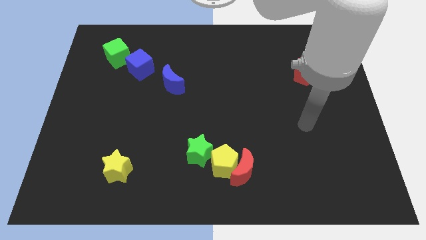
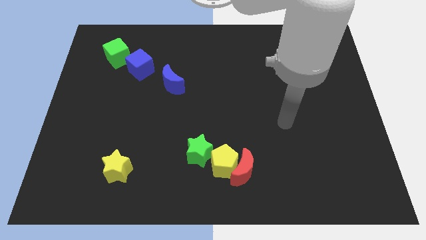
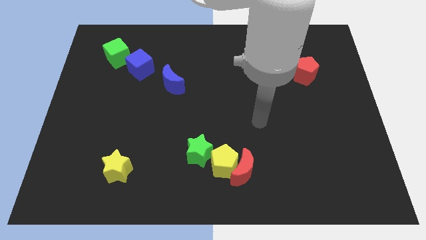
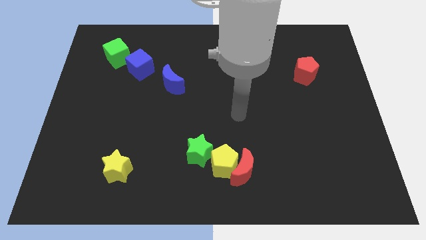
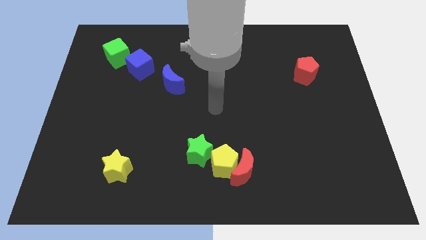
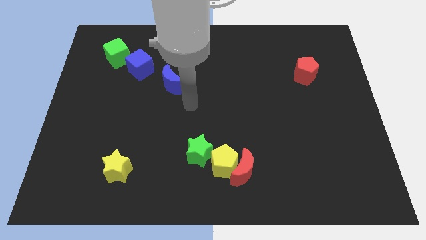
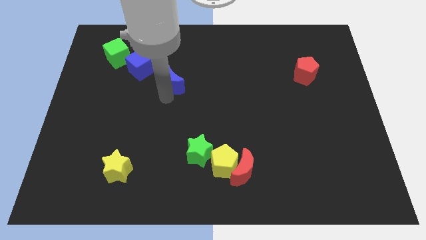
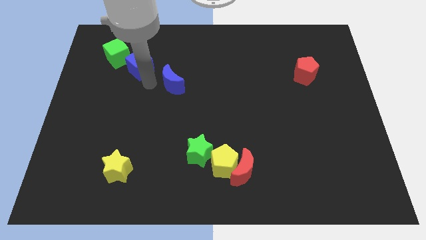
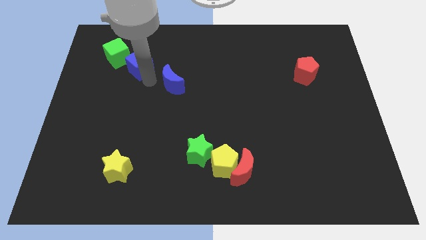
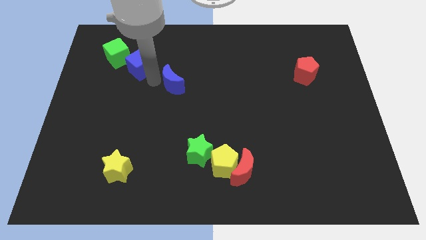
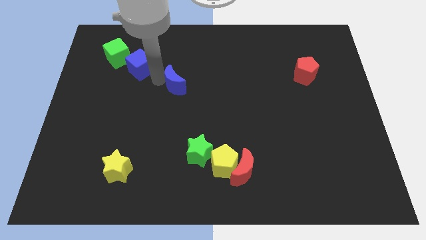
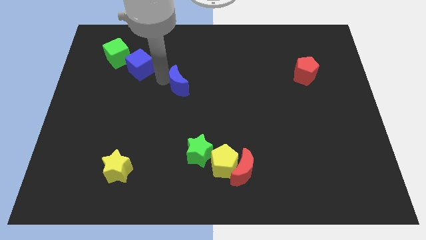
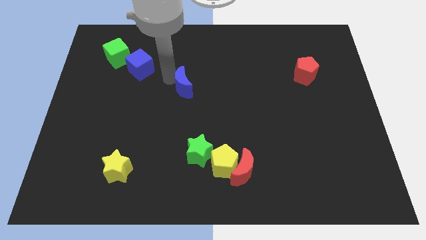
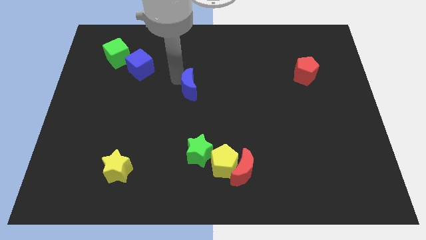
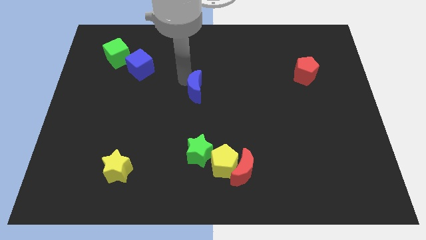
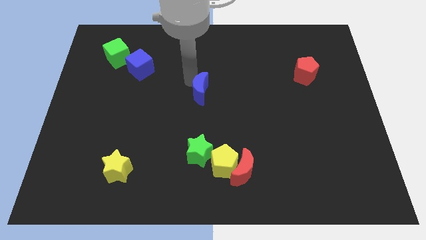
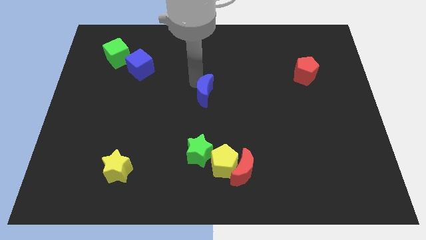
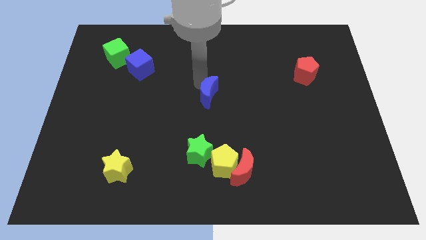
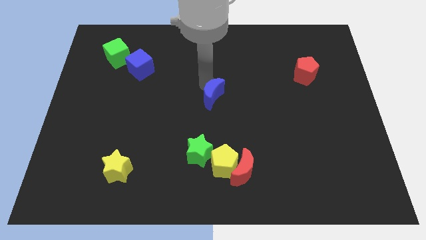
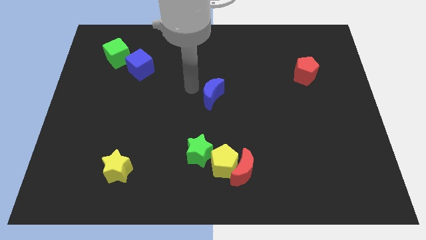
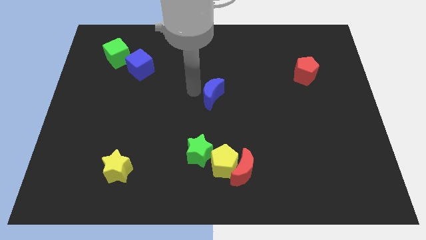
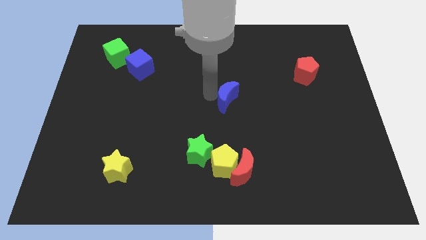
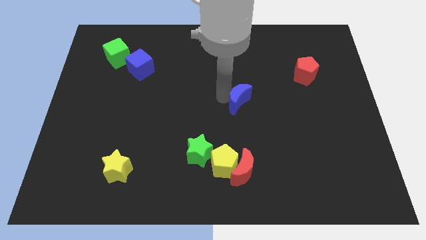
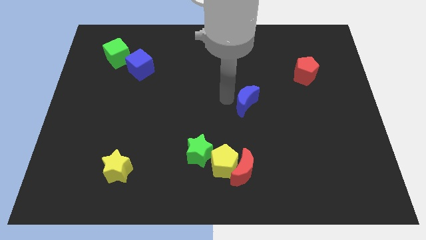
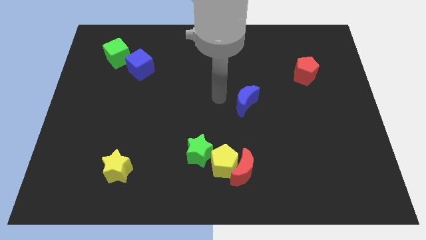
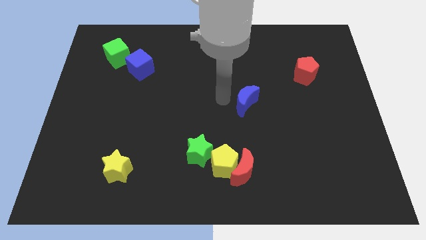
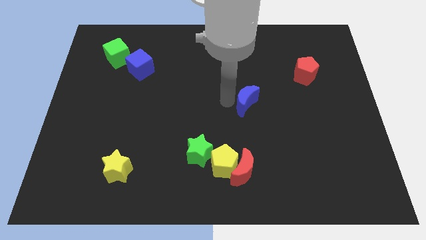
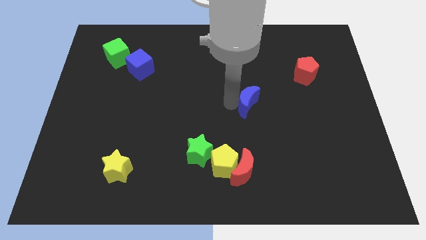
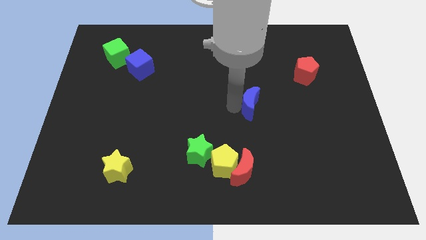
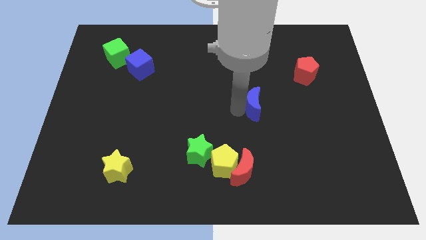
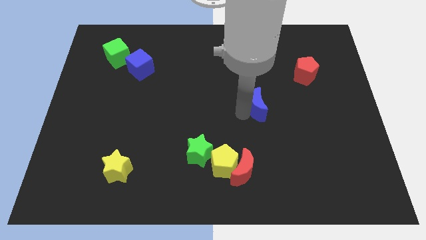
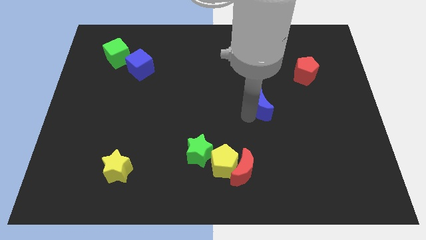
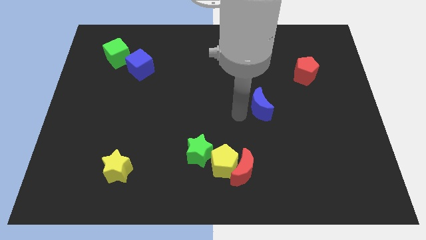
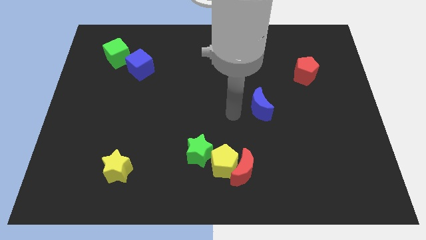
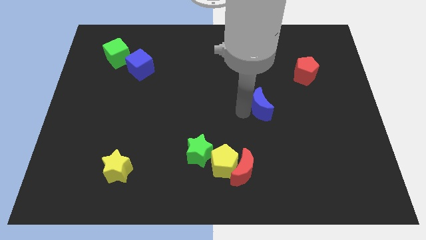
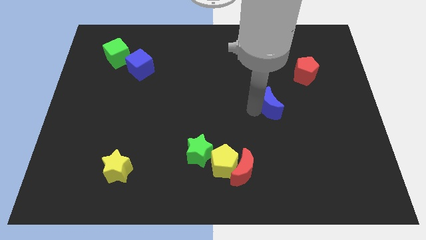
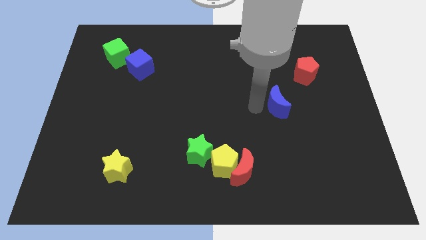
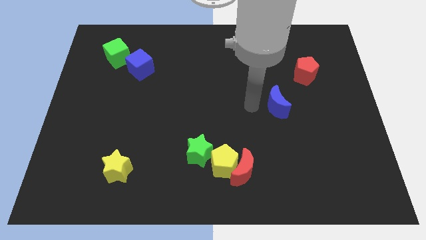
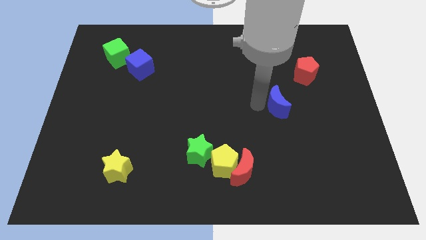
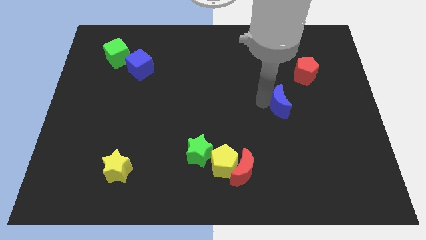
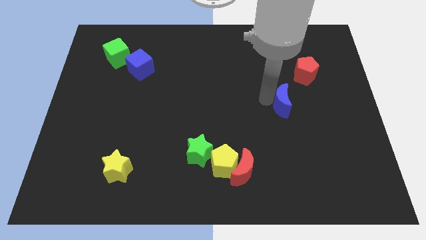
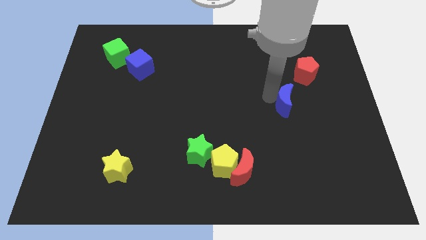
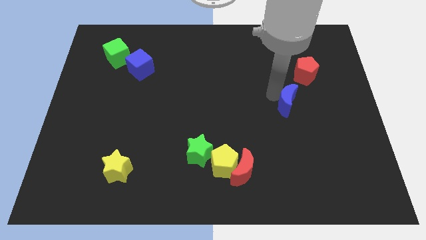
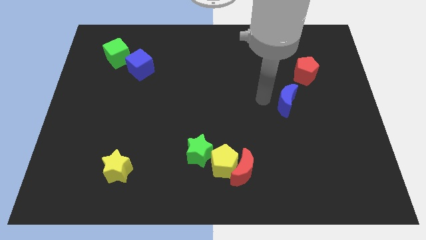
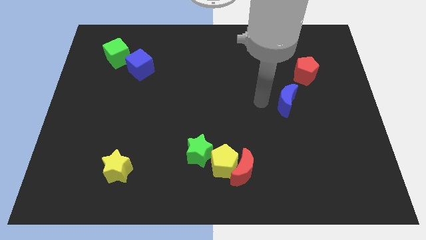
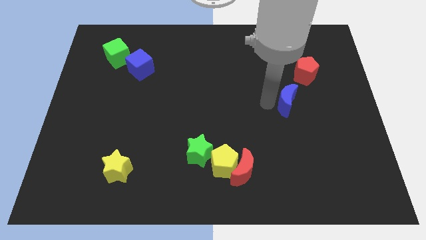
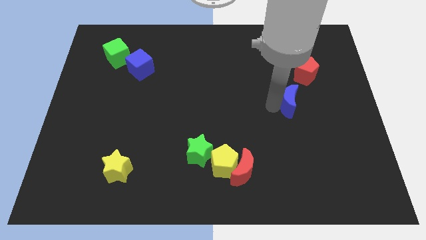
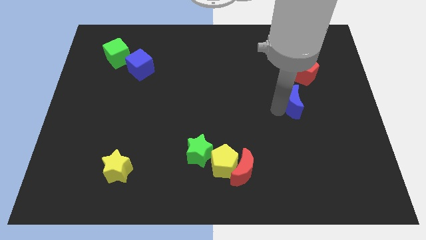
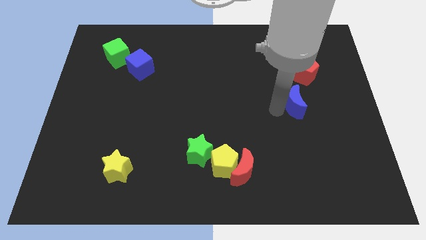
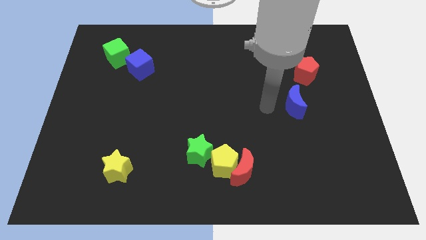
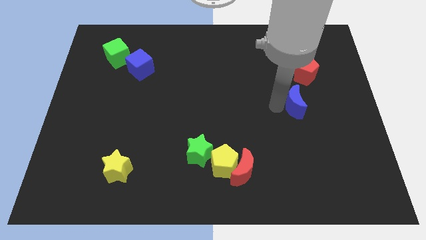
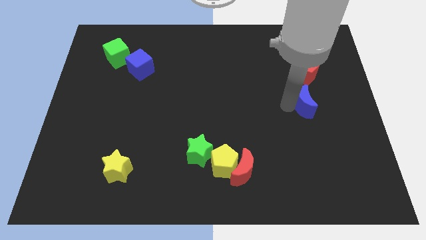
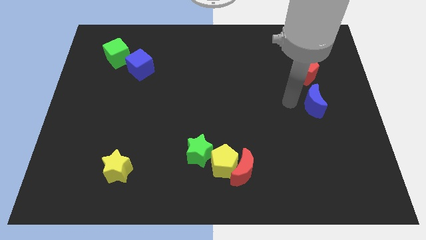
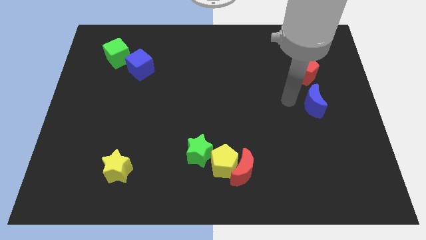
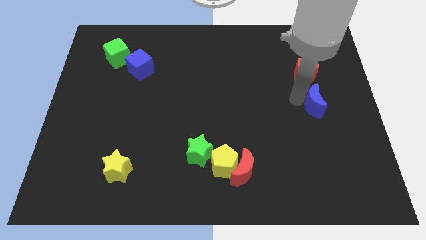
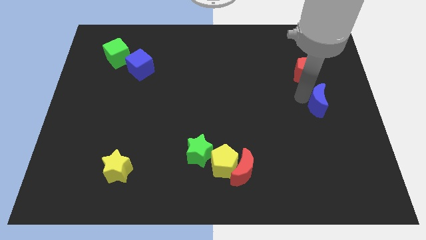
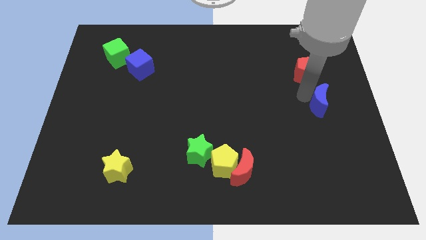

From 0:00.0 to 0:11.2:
slide the blue moon to the right side of the board
